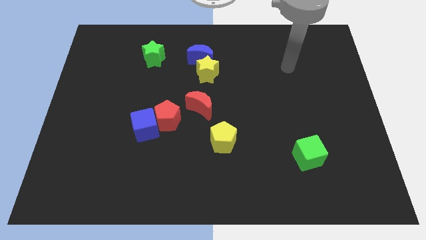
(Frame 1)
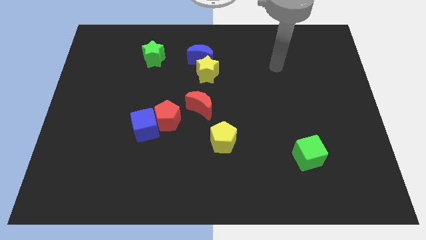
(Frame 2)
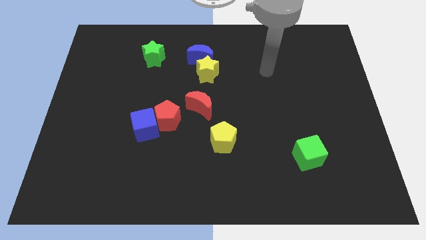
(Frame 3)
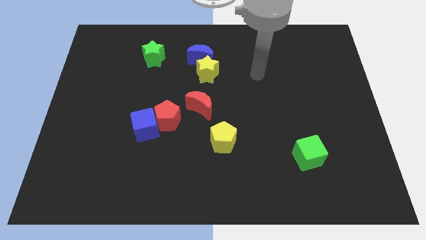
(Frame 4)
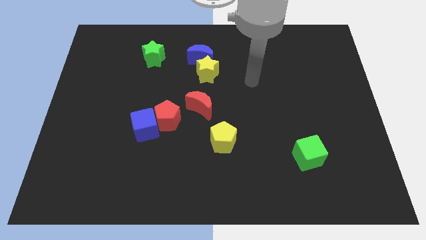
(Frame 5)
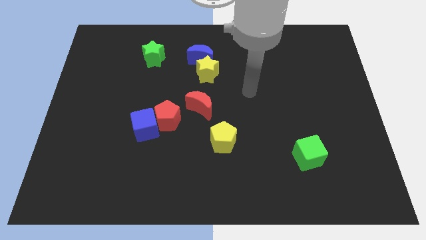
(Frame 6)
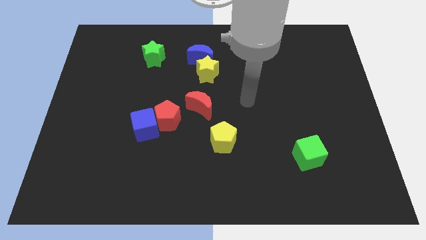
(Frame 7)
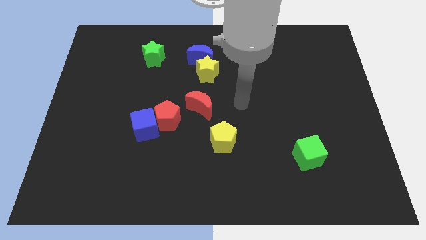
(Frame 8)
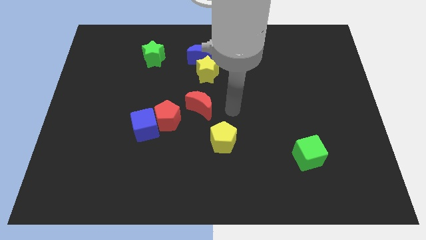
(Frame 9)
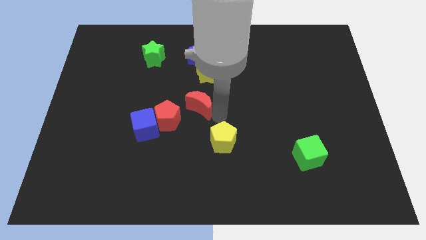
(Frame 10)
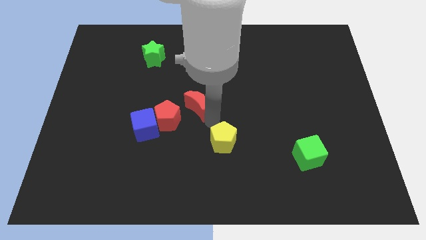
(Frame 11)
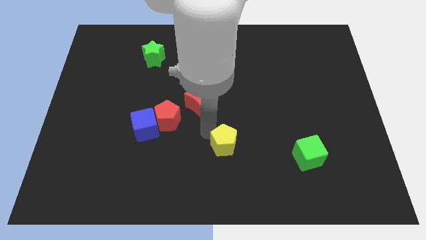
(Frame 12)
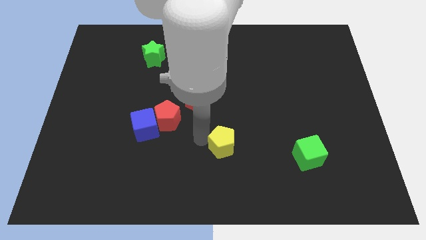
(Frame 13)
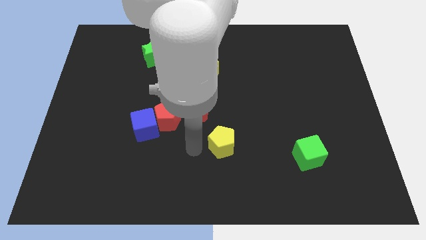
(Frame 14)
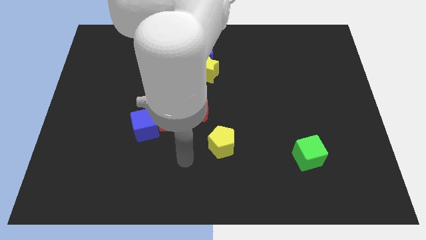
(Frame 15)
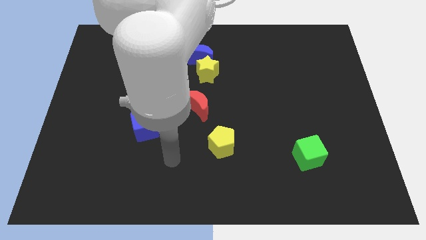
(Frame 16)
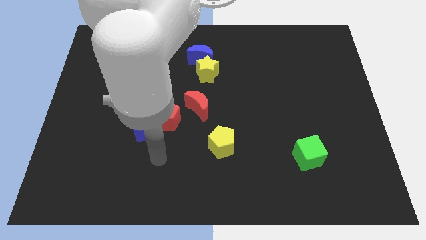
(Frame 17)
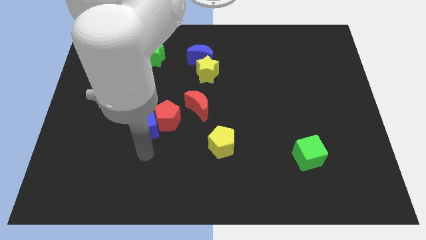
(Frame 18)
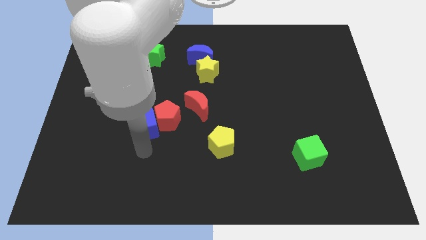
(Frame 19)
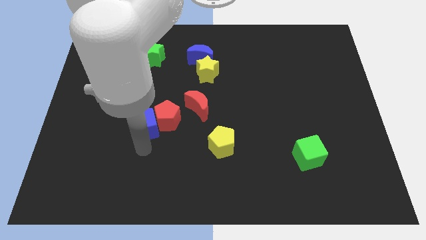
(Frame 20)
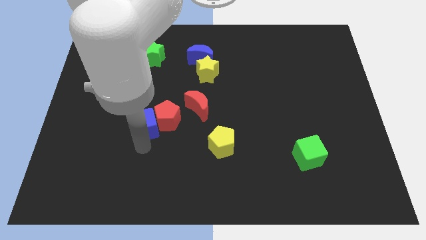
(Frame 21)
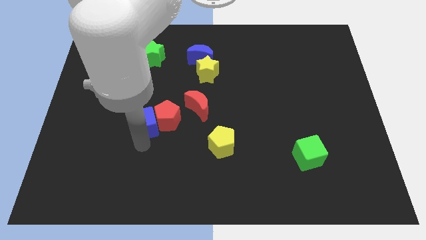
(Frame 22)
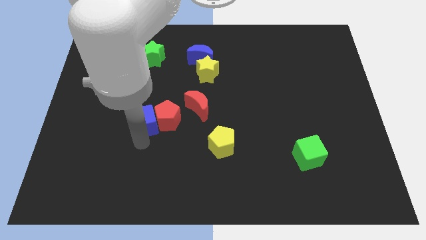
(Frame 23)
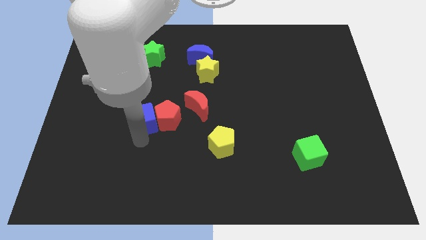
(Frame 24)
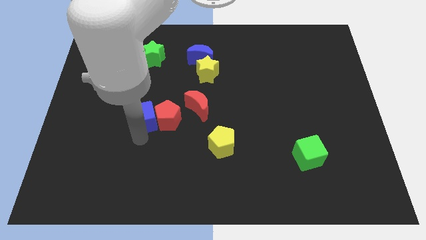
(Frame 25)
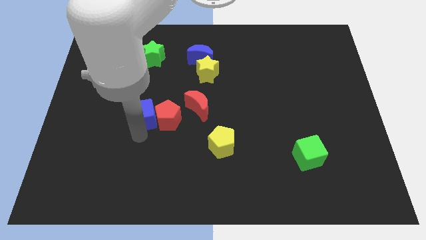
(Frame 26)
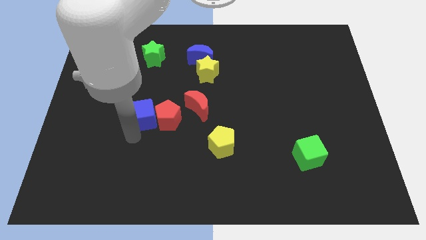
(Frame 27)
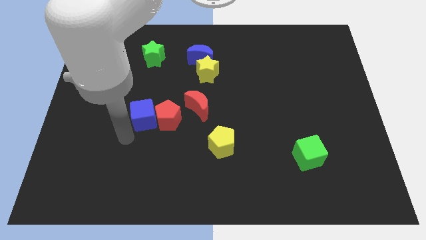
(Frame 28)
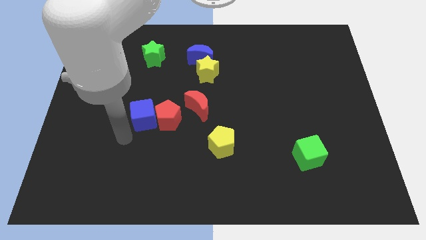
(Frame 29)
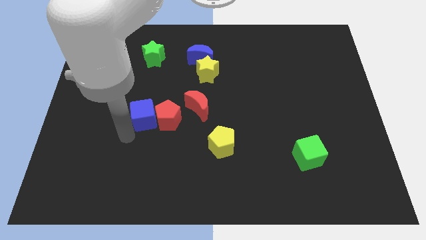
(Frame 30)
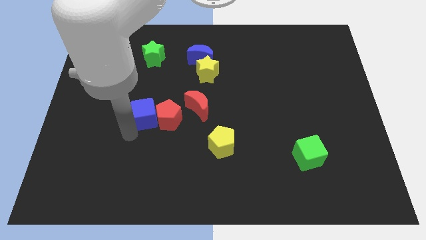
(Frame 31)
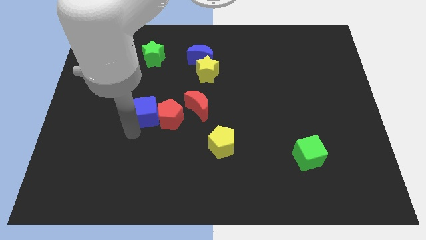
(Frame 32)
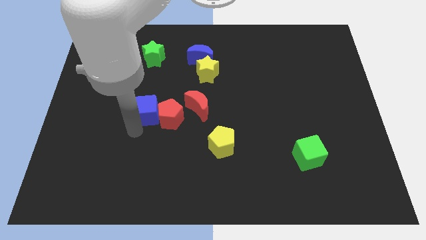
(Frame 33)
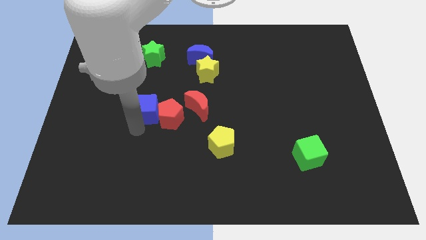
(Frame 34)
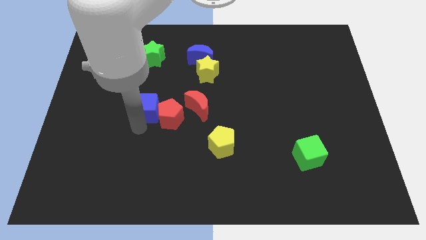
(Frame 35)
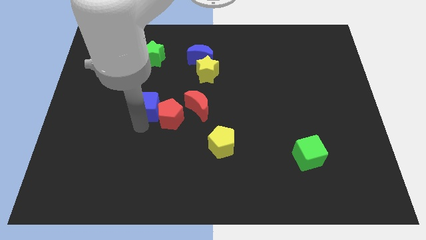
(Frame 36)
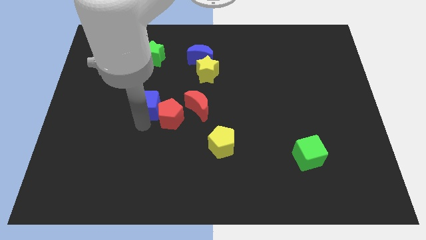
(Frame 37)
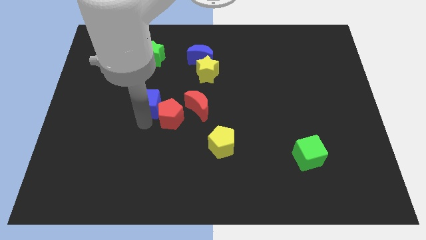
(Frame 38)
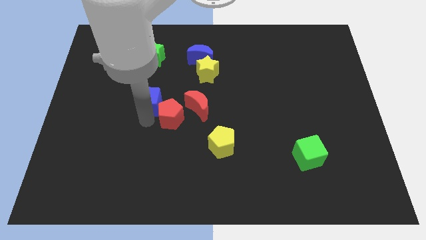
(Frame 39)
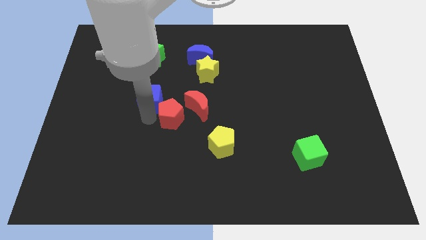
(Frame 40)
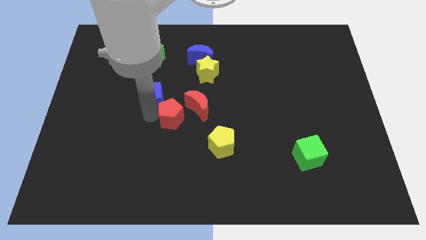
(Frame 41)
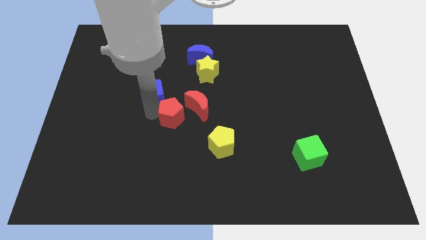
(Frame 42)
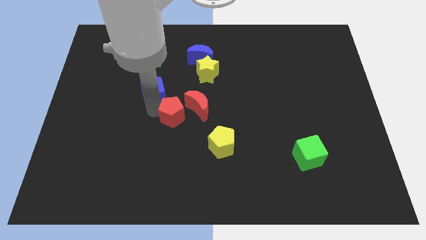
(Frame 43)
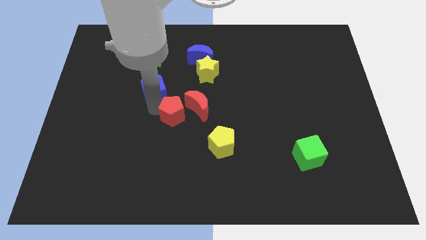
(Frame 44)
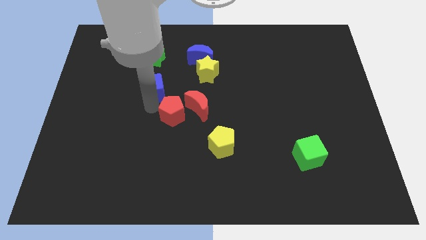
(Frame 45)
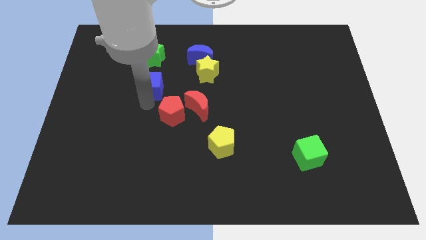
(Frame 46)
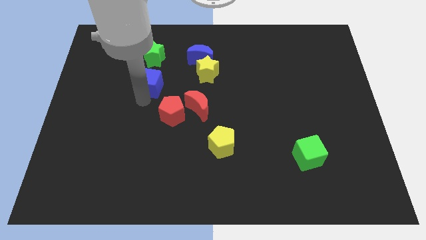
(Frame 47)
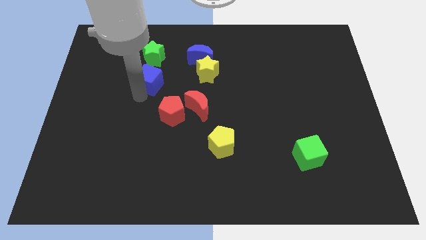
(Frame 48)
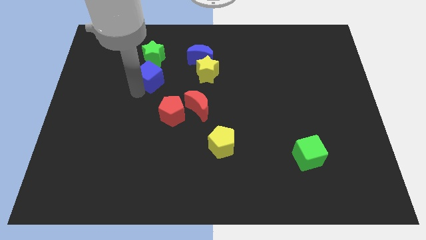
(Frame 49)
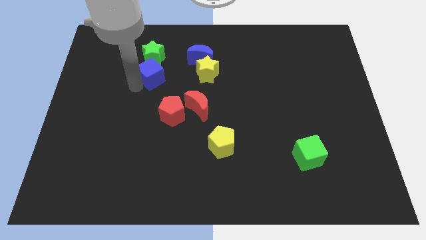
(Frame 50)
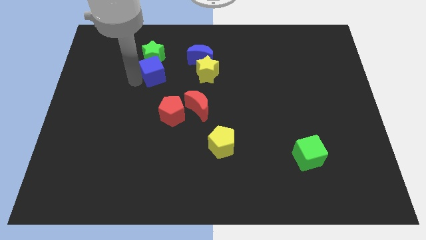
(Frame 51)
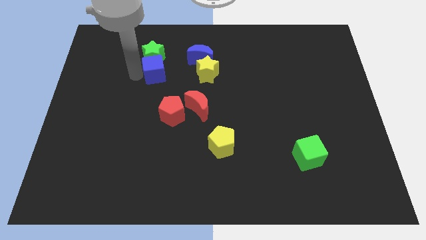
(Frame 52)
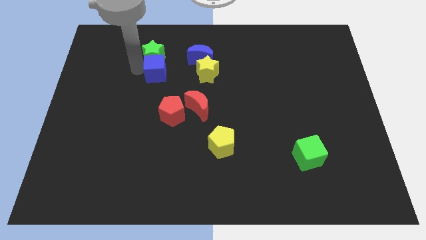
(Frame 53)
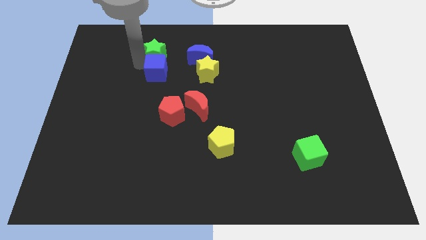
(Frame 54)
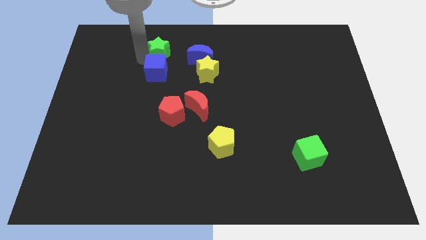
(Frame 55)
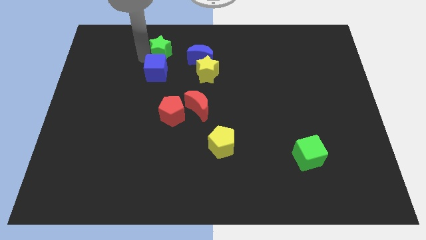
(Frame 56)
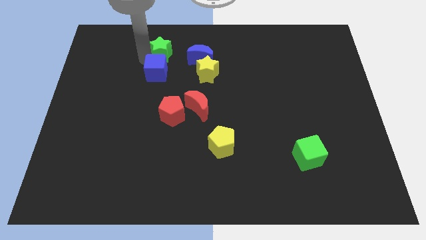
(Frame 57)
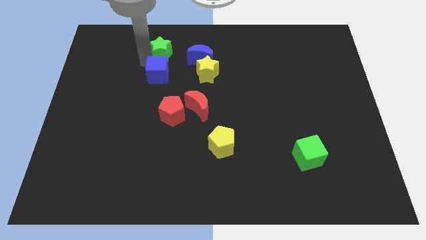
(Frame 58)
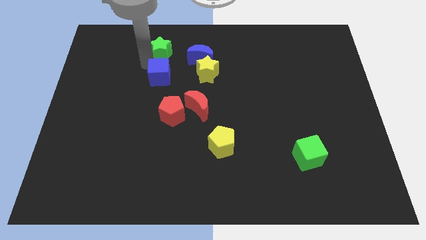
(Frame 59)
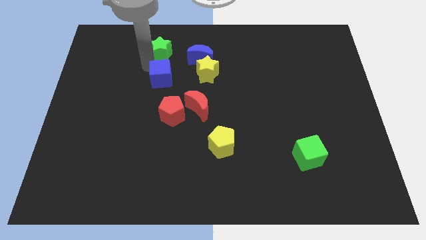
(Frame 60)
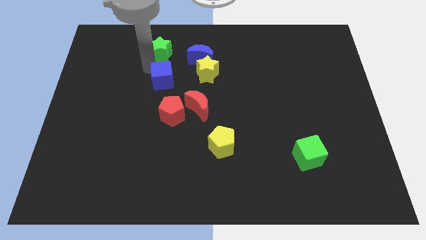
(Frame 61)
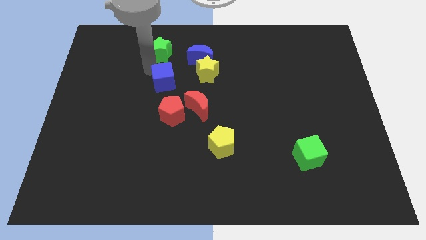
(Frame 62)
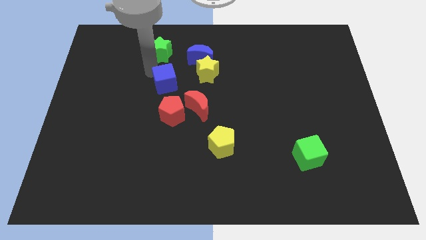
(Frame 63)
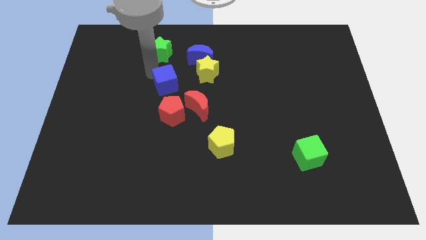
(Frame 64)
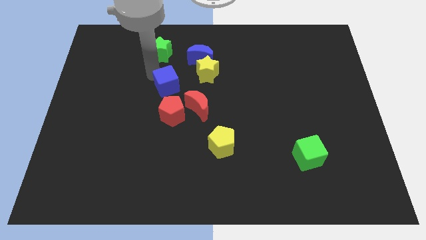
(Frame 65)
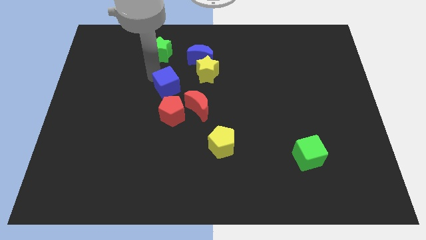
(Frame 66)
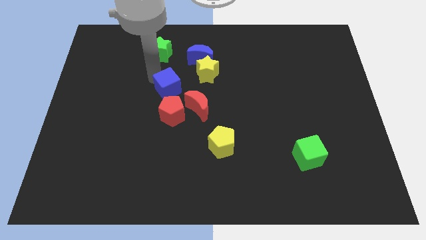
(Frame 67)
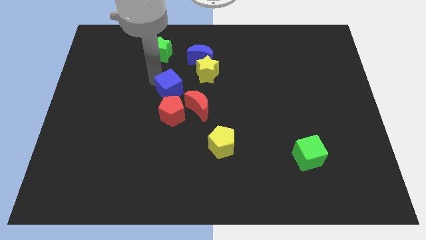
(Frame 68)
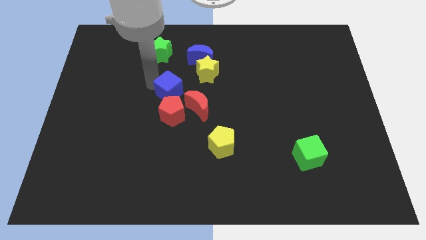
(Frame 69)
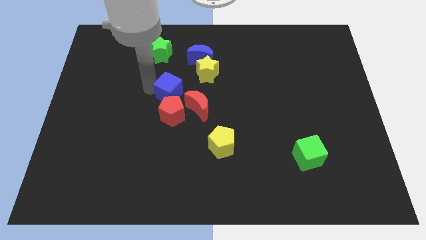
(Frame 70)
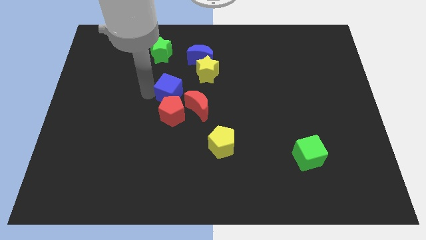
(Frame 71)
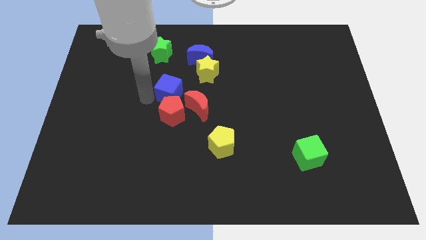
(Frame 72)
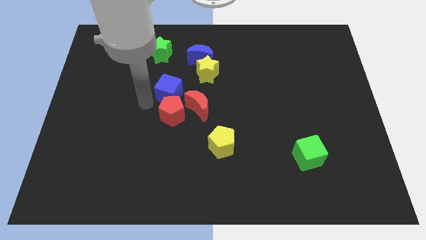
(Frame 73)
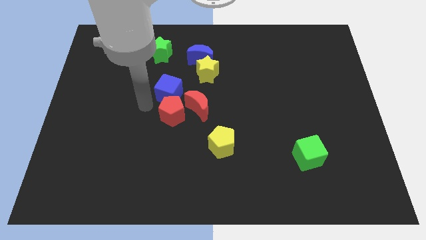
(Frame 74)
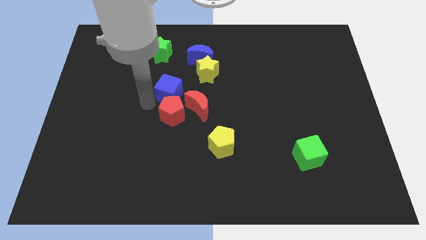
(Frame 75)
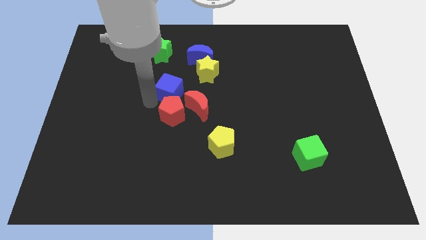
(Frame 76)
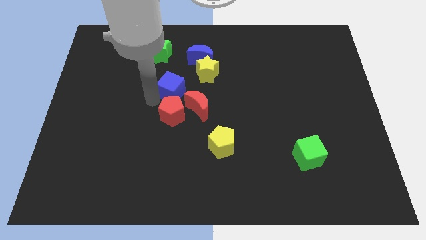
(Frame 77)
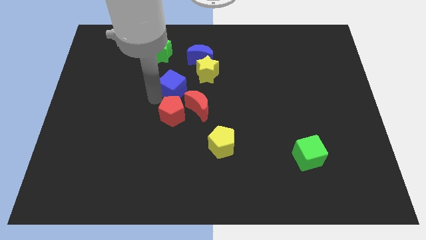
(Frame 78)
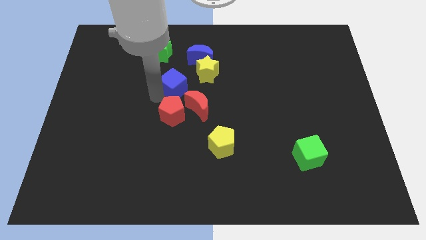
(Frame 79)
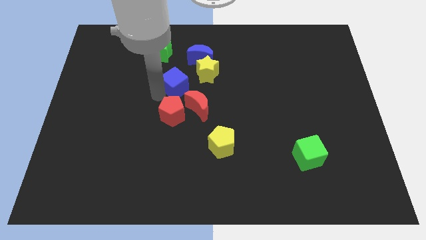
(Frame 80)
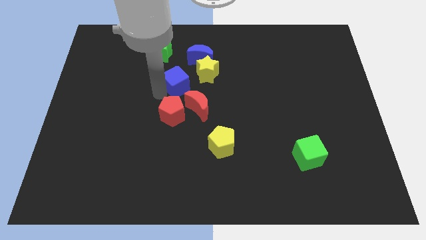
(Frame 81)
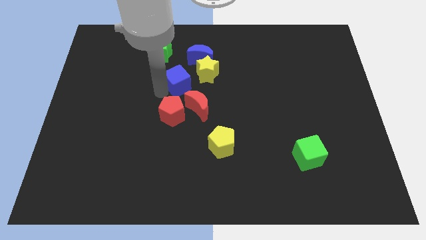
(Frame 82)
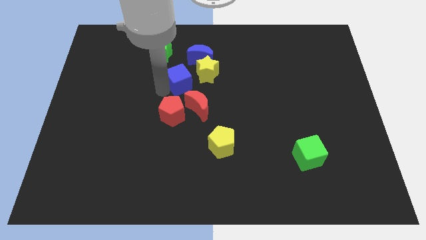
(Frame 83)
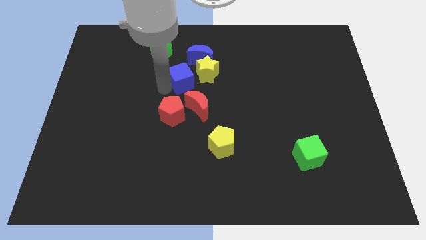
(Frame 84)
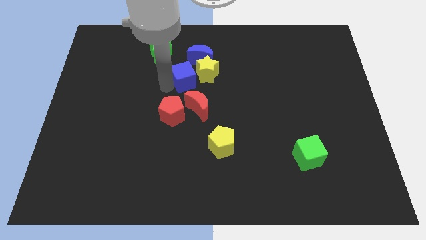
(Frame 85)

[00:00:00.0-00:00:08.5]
move the blue cube close to the yellow star
